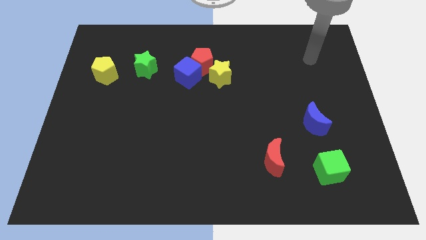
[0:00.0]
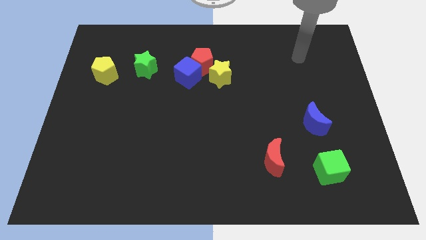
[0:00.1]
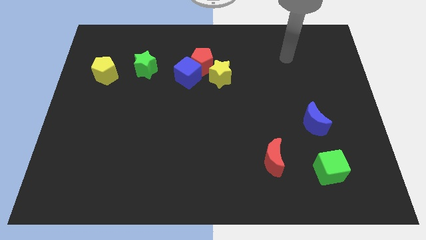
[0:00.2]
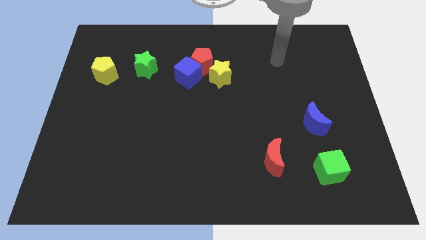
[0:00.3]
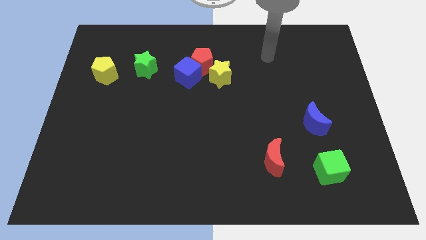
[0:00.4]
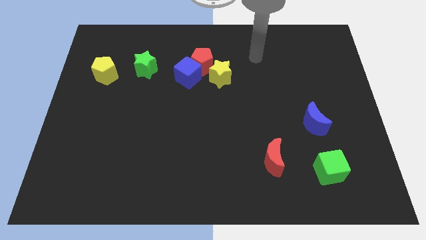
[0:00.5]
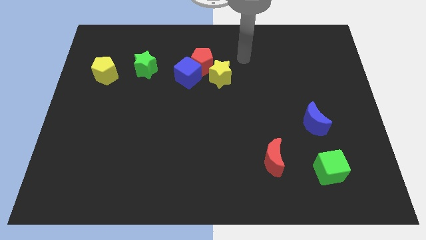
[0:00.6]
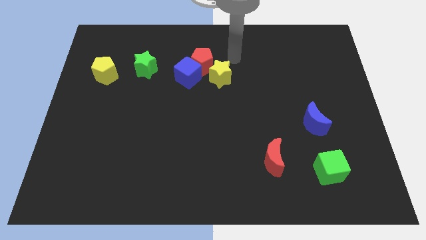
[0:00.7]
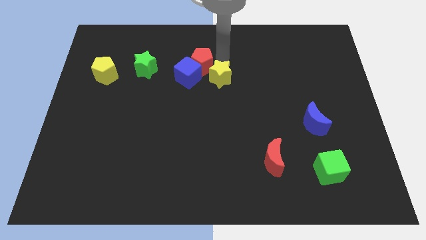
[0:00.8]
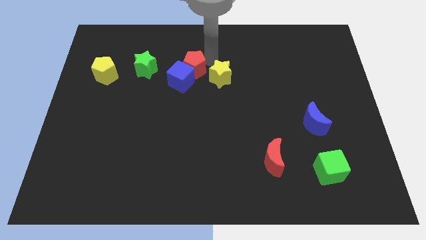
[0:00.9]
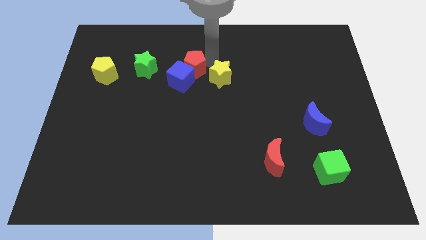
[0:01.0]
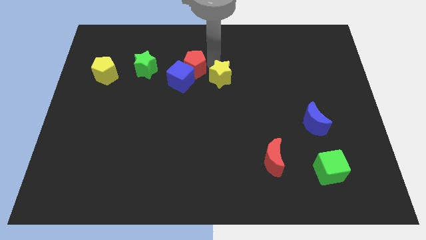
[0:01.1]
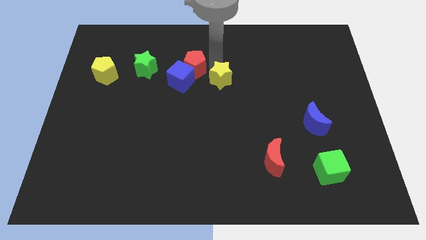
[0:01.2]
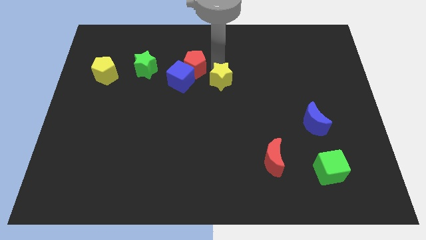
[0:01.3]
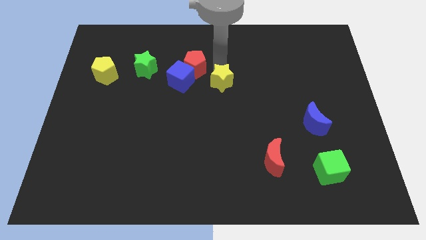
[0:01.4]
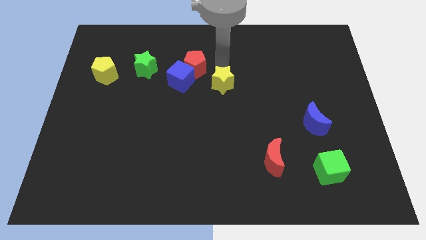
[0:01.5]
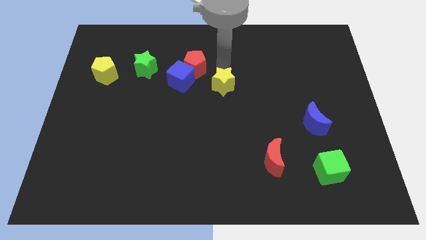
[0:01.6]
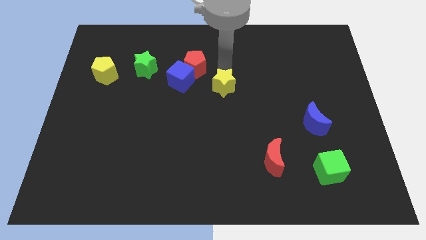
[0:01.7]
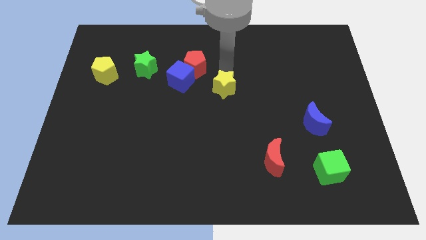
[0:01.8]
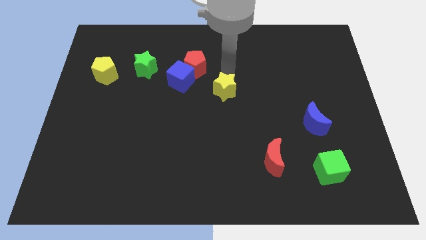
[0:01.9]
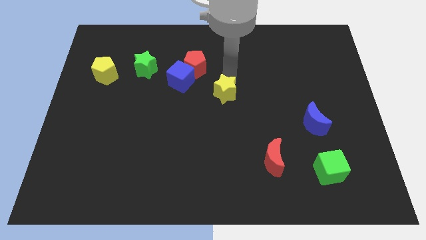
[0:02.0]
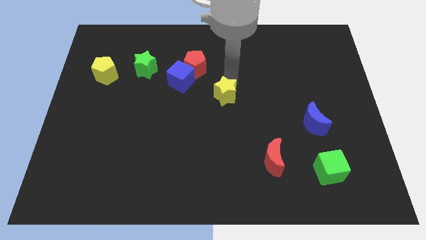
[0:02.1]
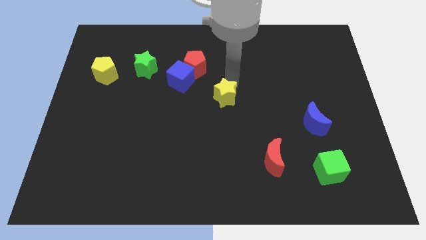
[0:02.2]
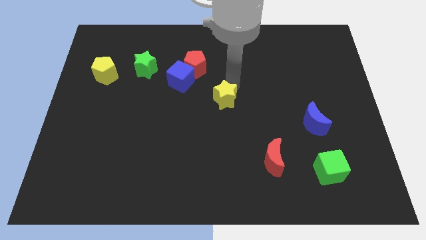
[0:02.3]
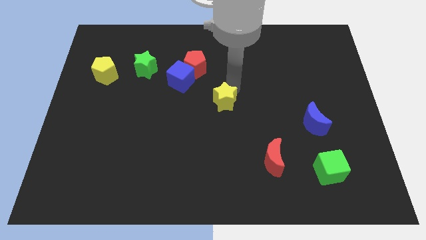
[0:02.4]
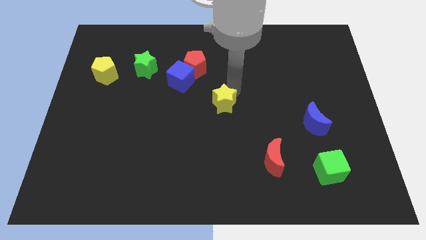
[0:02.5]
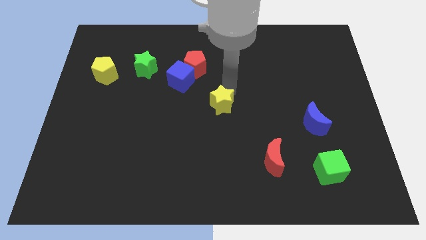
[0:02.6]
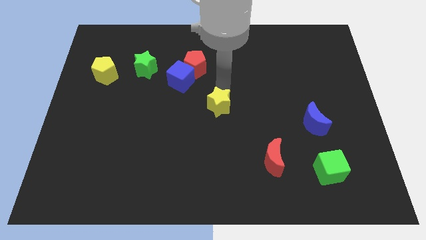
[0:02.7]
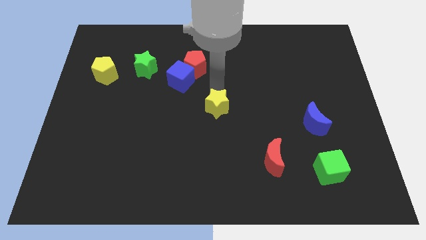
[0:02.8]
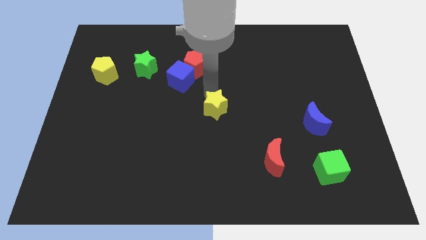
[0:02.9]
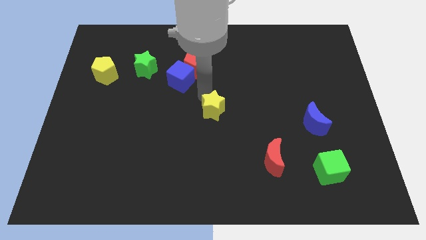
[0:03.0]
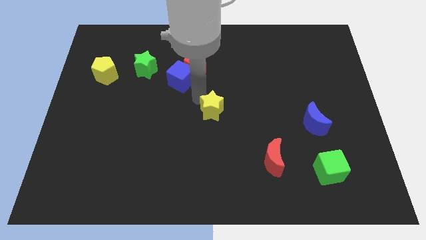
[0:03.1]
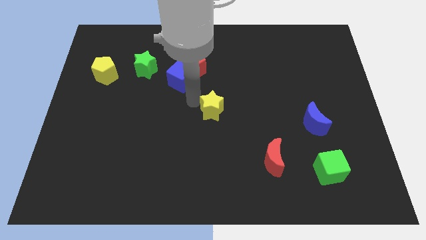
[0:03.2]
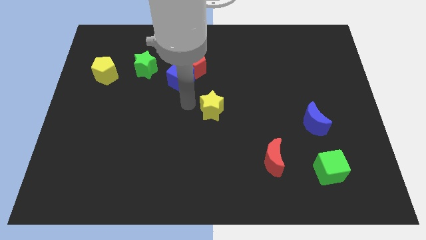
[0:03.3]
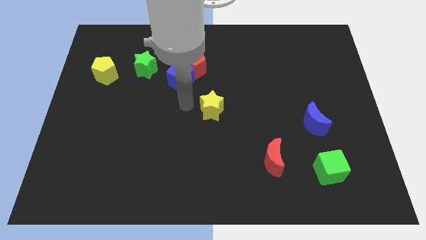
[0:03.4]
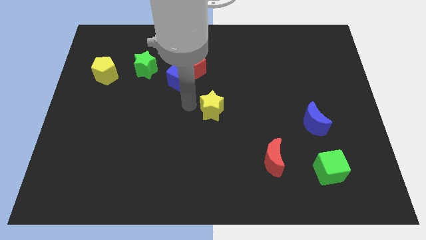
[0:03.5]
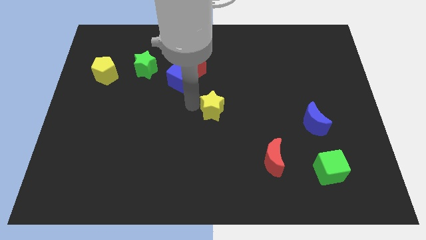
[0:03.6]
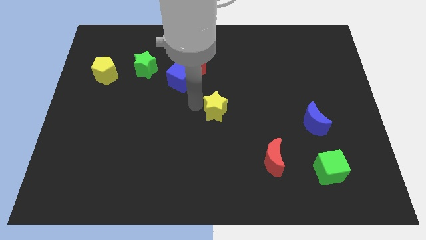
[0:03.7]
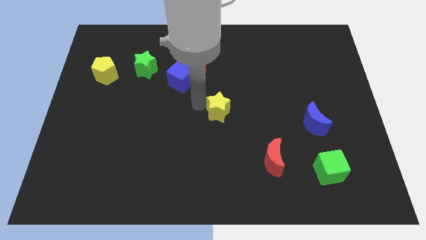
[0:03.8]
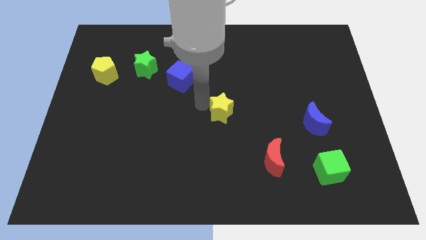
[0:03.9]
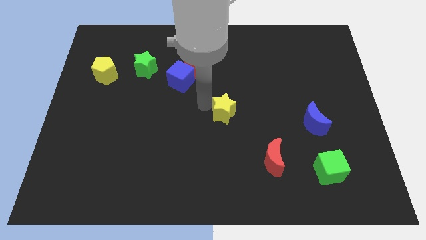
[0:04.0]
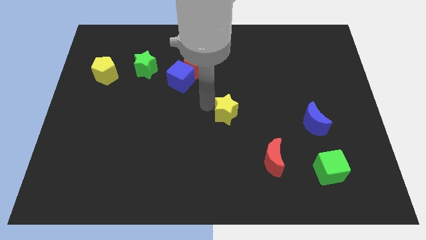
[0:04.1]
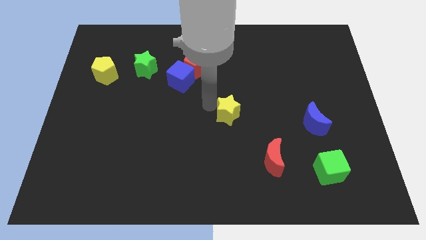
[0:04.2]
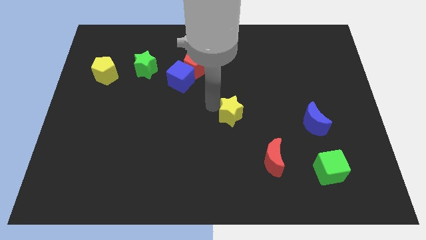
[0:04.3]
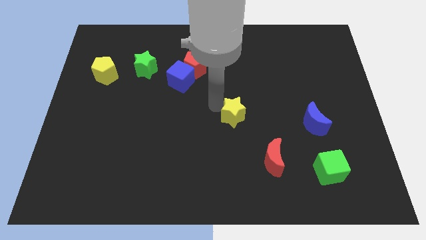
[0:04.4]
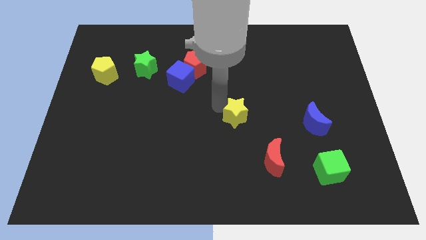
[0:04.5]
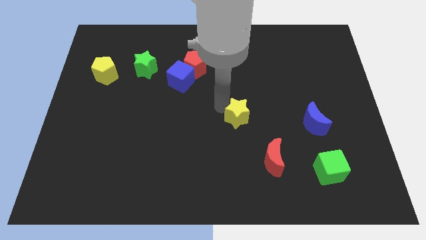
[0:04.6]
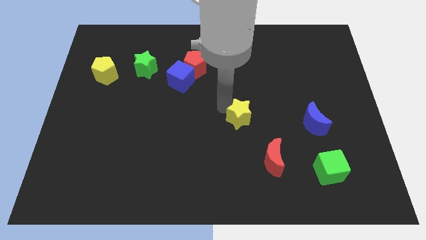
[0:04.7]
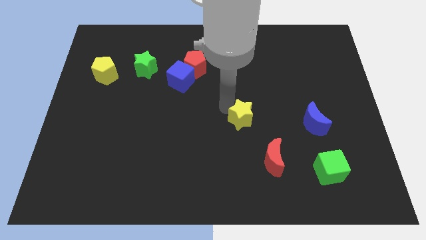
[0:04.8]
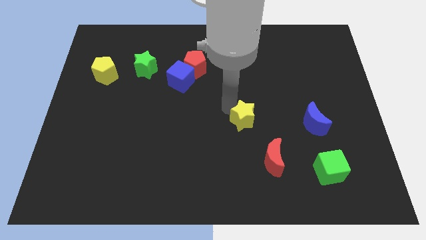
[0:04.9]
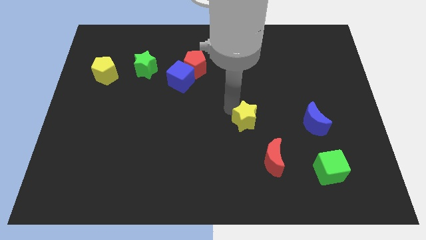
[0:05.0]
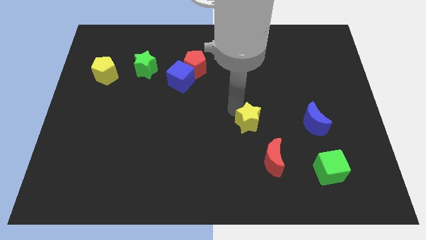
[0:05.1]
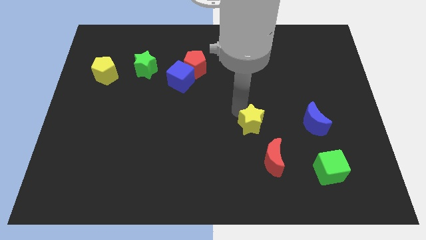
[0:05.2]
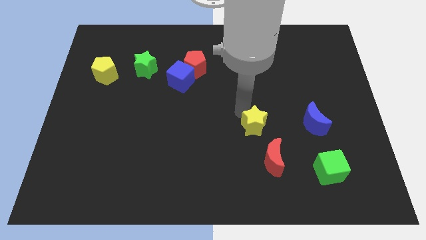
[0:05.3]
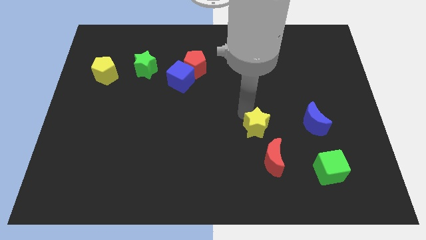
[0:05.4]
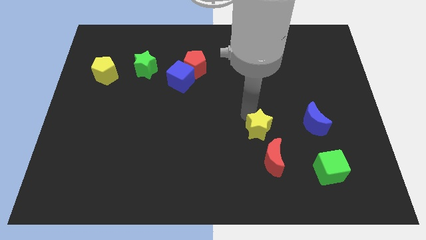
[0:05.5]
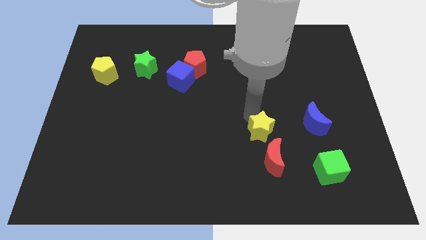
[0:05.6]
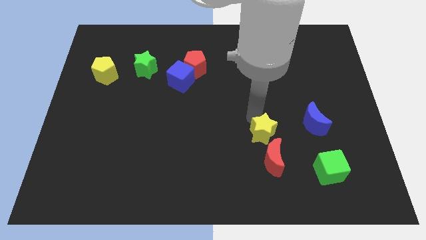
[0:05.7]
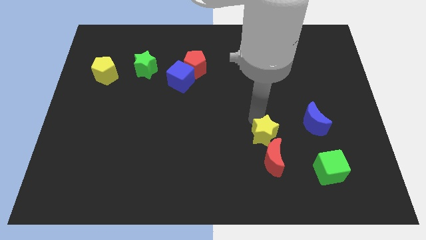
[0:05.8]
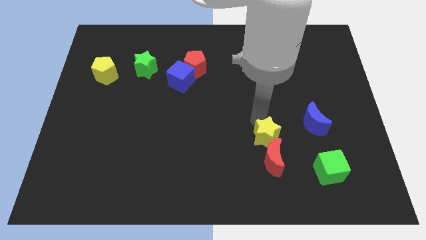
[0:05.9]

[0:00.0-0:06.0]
put the yellow star next to the red moon

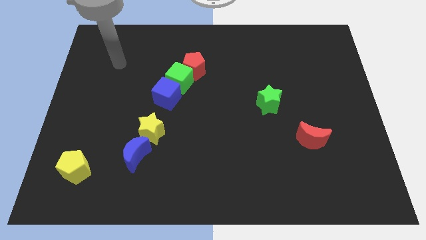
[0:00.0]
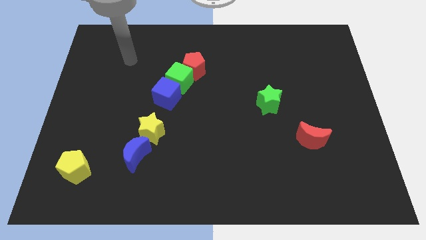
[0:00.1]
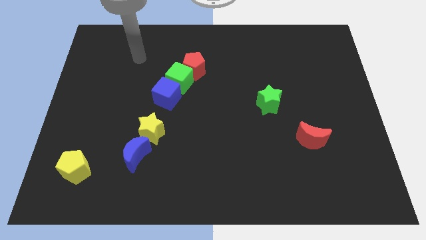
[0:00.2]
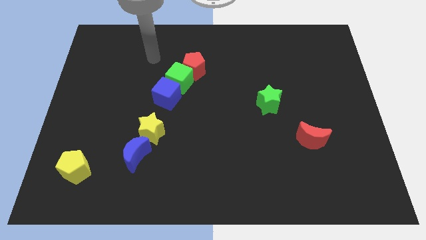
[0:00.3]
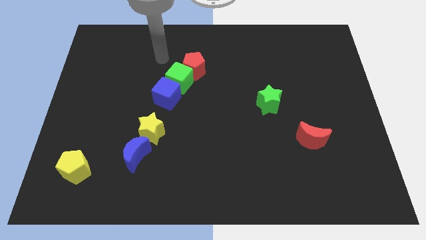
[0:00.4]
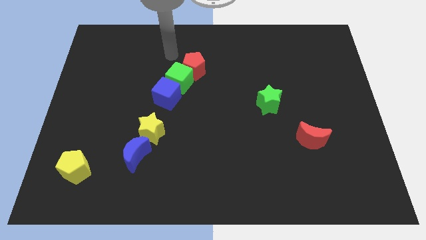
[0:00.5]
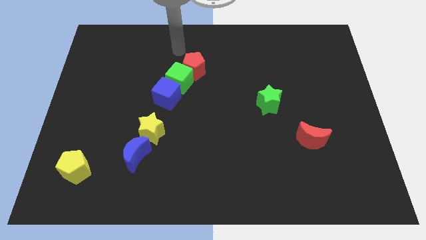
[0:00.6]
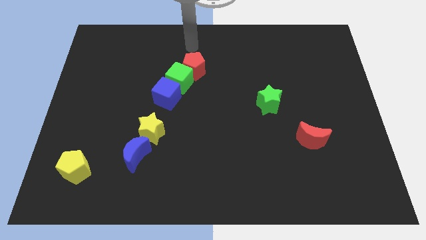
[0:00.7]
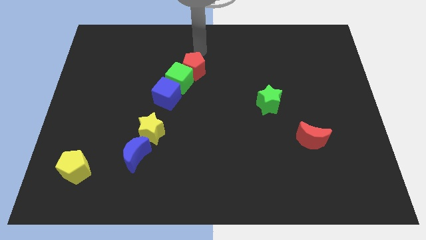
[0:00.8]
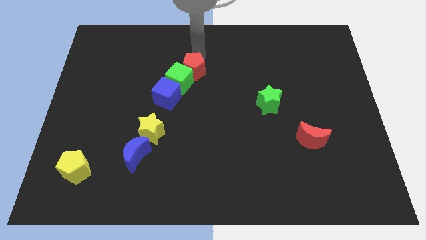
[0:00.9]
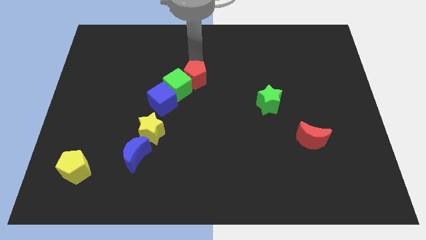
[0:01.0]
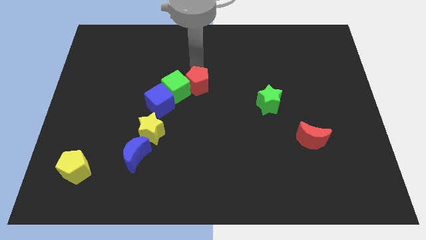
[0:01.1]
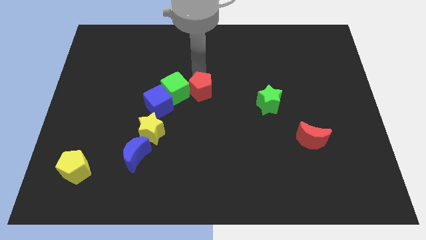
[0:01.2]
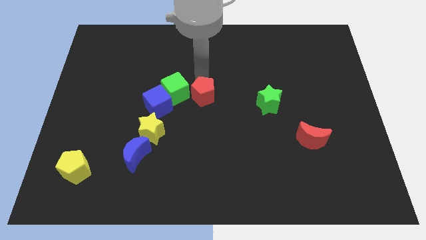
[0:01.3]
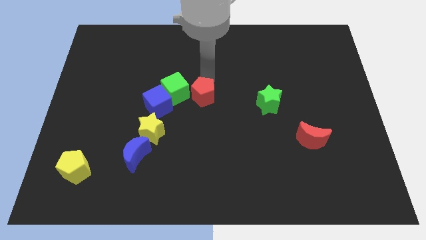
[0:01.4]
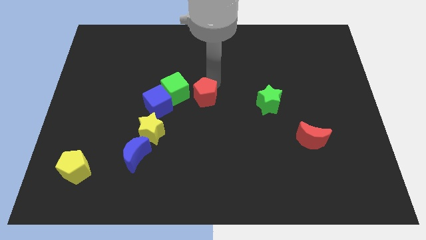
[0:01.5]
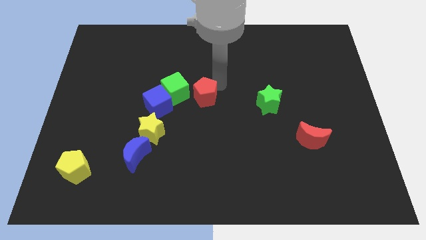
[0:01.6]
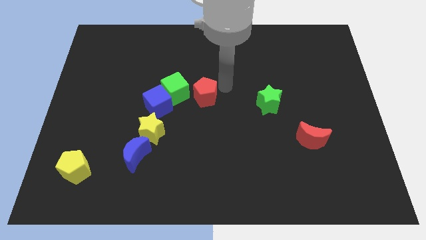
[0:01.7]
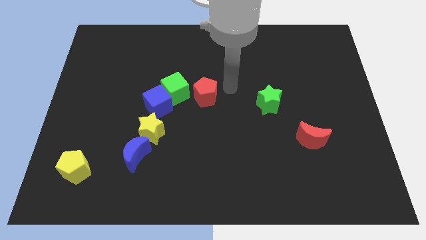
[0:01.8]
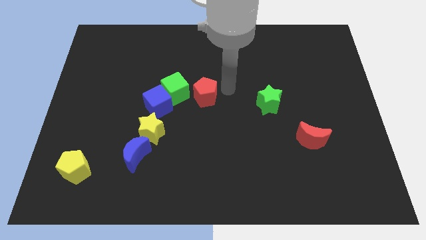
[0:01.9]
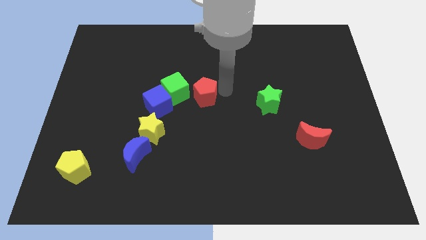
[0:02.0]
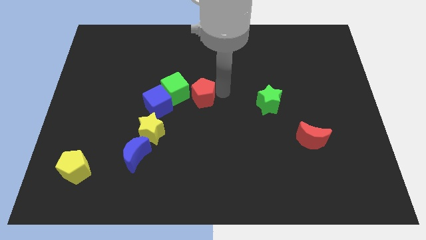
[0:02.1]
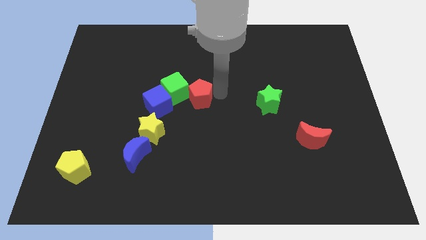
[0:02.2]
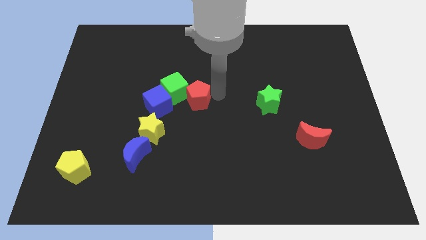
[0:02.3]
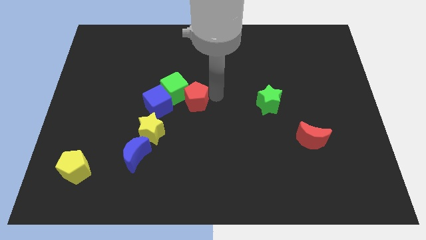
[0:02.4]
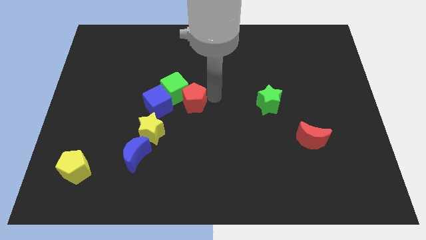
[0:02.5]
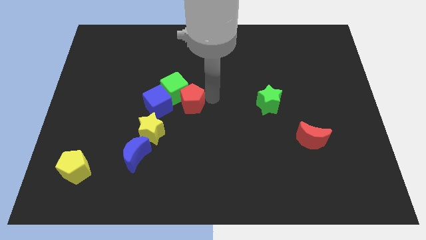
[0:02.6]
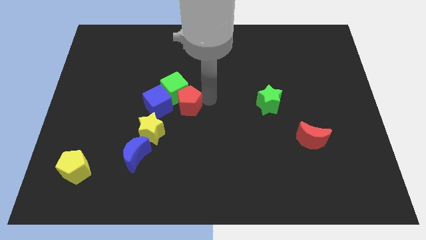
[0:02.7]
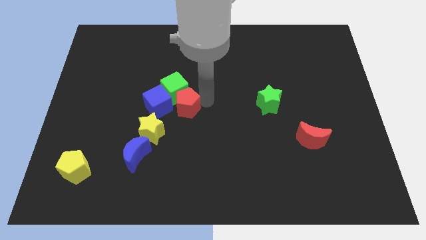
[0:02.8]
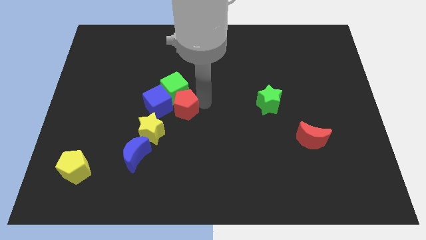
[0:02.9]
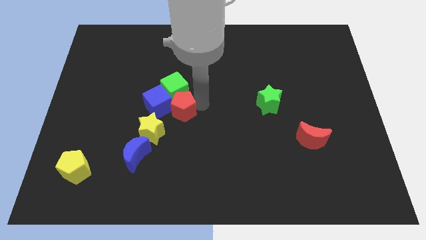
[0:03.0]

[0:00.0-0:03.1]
put the red pentagon close to the blue cube
